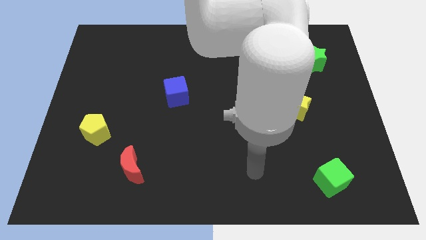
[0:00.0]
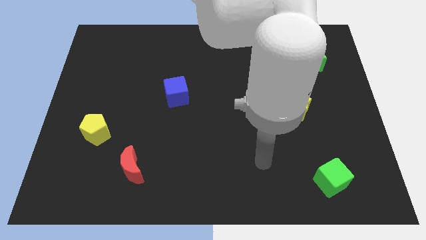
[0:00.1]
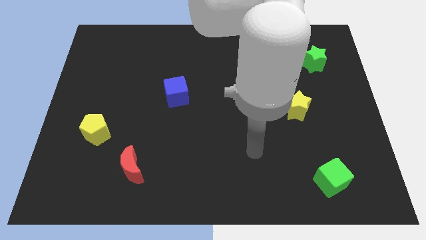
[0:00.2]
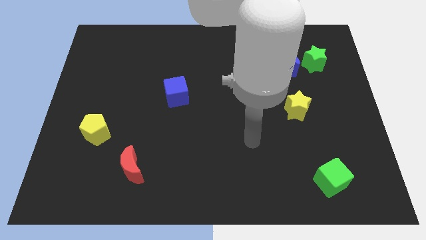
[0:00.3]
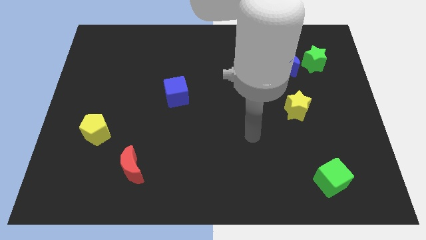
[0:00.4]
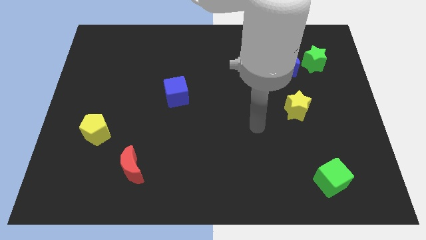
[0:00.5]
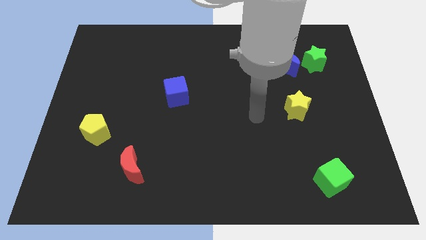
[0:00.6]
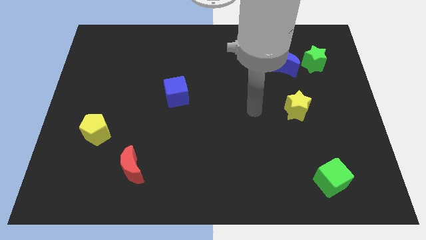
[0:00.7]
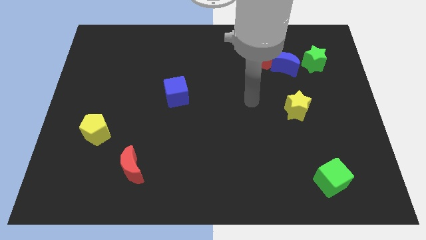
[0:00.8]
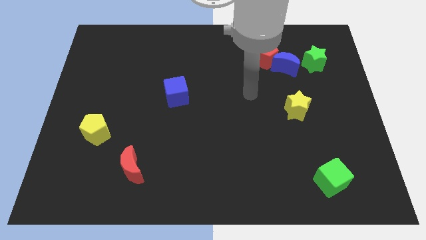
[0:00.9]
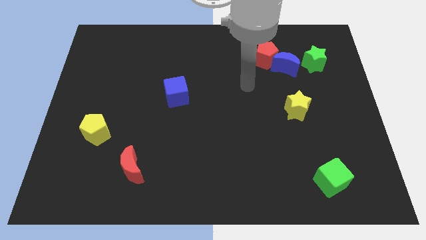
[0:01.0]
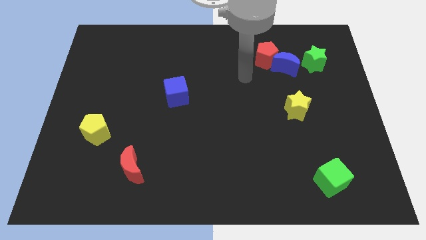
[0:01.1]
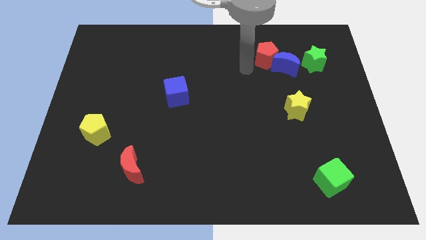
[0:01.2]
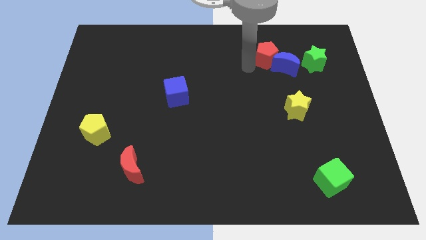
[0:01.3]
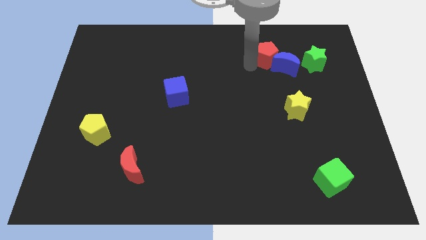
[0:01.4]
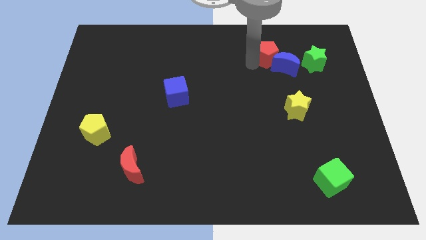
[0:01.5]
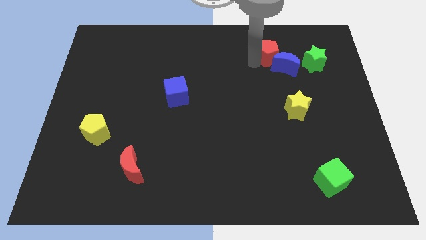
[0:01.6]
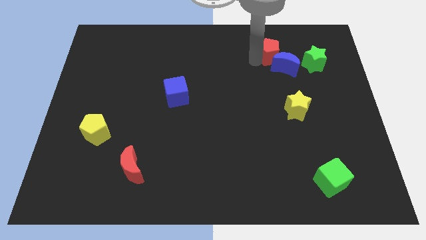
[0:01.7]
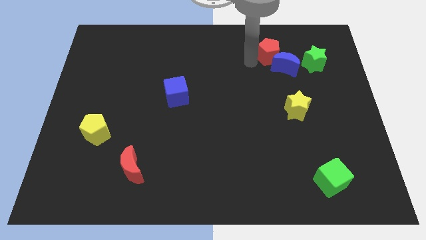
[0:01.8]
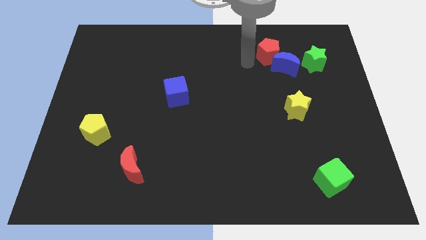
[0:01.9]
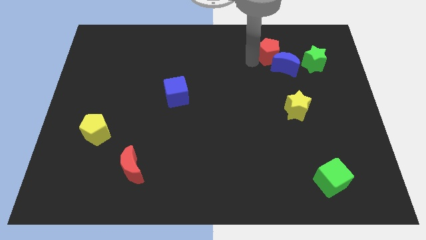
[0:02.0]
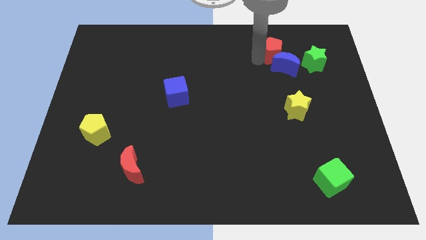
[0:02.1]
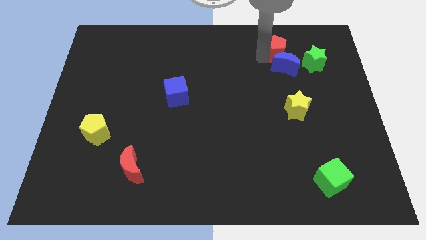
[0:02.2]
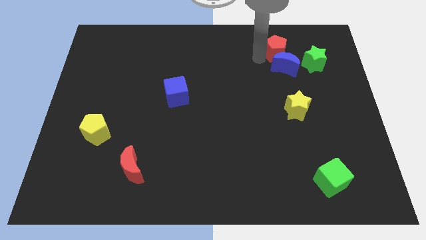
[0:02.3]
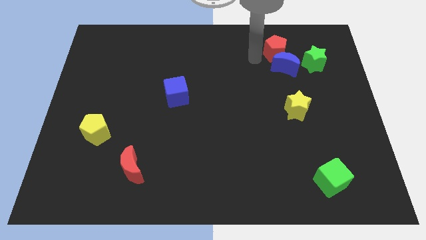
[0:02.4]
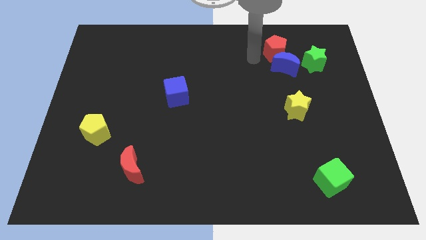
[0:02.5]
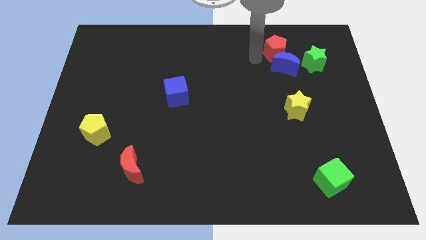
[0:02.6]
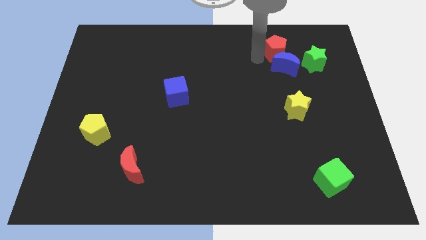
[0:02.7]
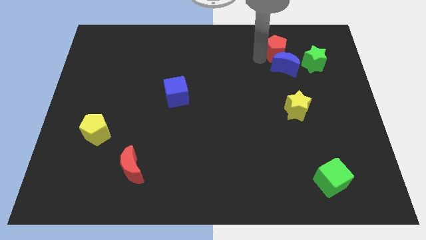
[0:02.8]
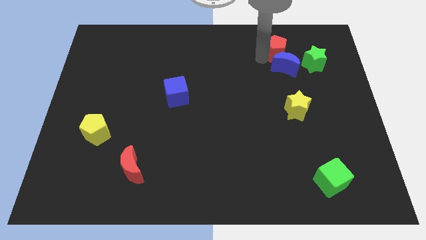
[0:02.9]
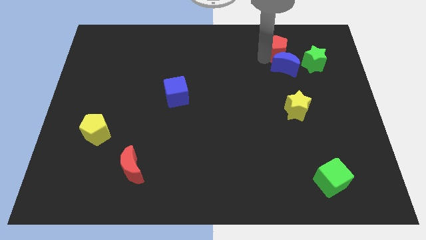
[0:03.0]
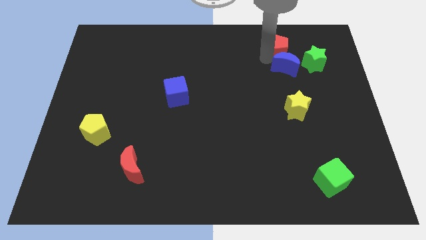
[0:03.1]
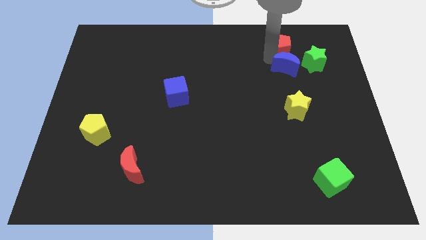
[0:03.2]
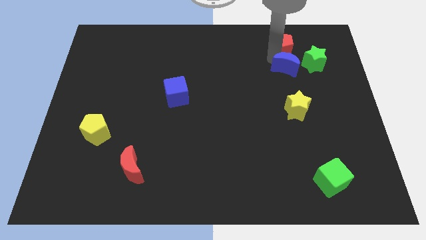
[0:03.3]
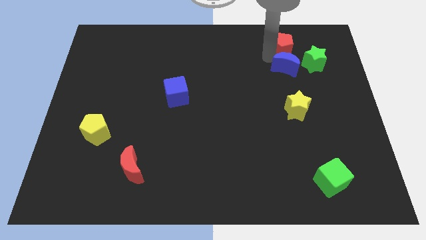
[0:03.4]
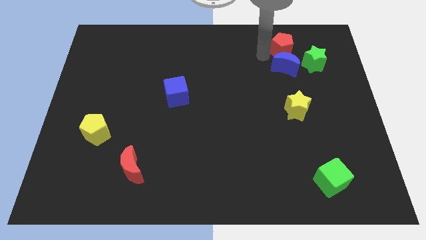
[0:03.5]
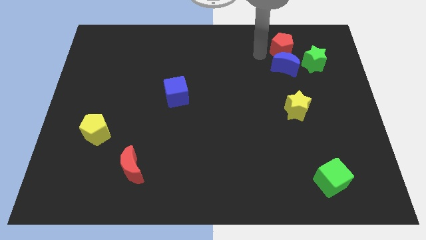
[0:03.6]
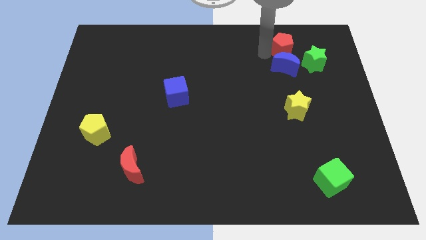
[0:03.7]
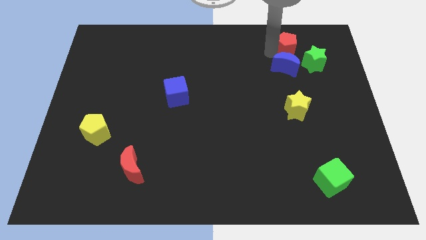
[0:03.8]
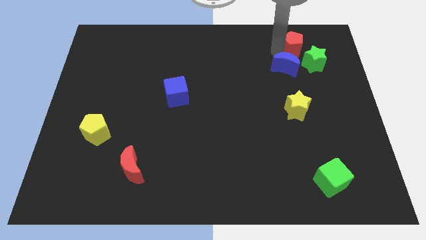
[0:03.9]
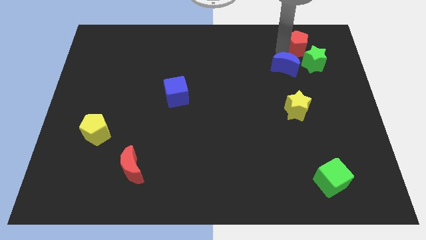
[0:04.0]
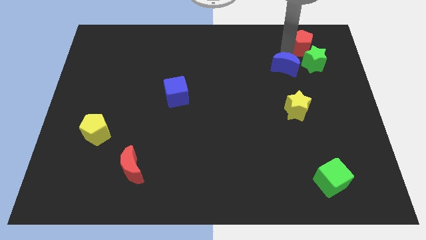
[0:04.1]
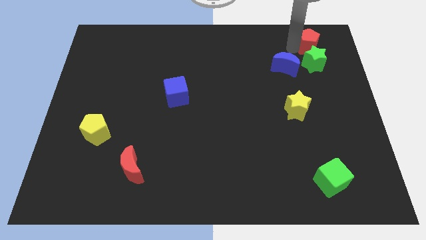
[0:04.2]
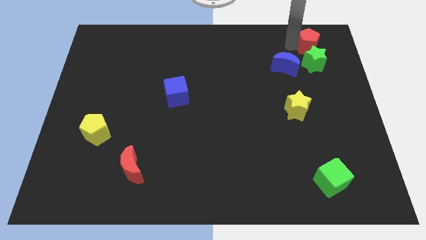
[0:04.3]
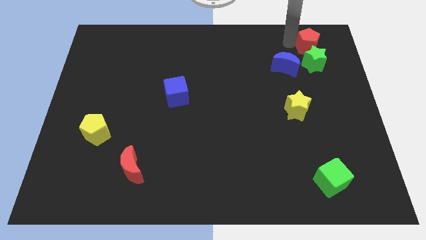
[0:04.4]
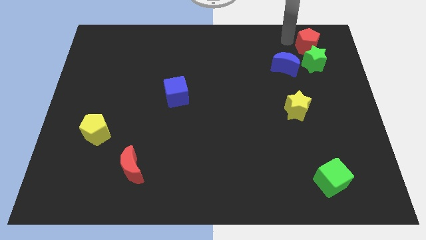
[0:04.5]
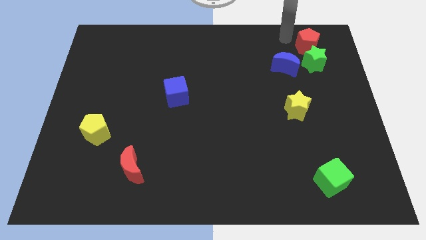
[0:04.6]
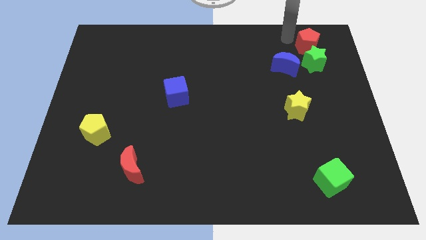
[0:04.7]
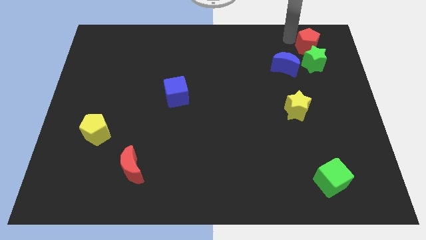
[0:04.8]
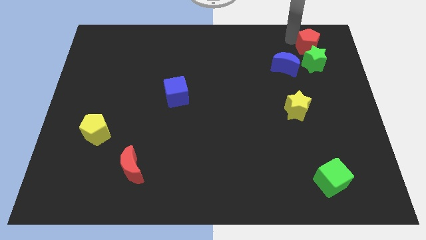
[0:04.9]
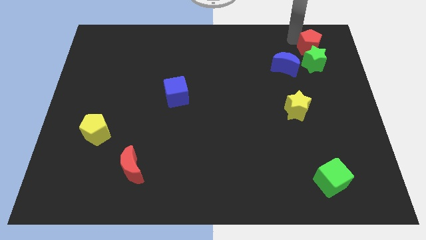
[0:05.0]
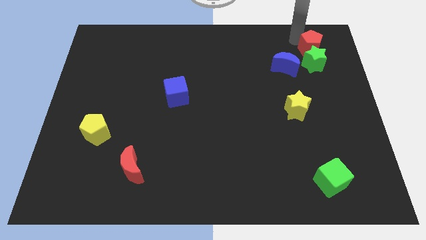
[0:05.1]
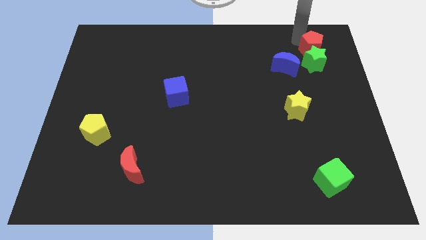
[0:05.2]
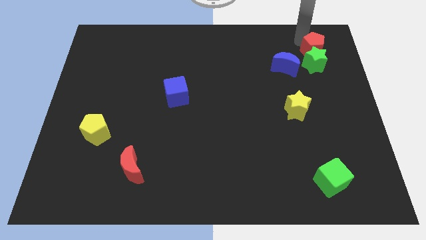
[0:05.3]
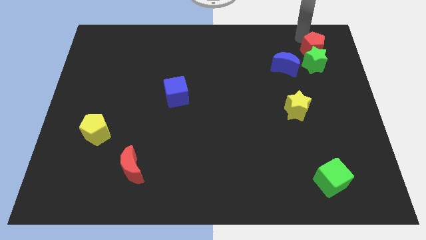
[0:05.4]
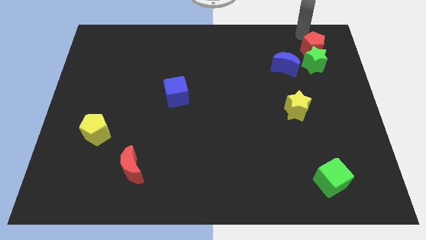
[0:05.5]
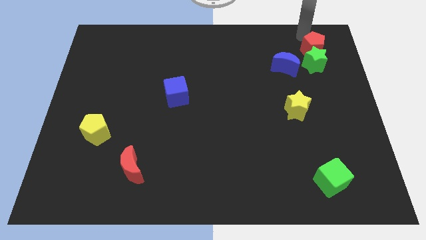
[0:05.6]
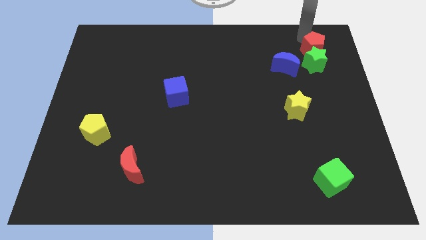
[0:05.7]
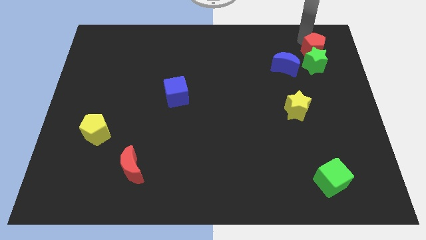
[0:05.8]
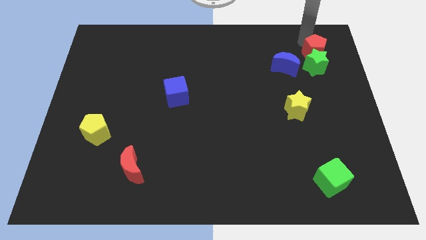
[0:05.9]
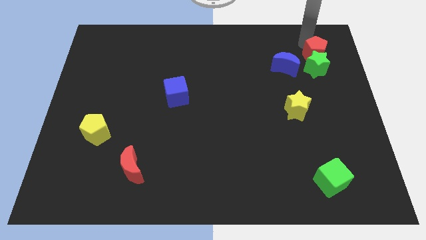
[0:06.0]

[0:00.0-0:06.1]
put the red pentagon to the right side of the blue moon
